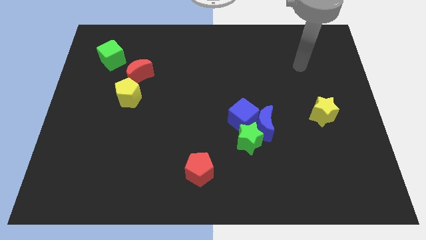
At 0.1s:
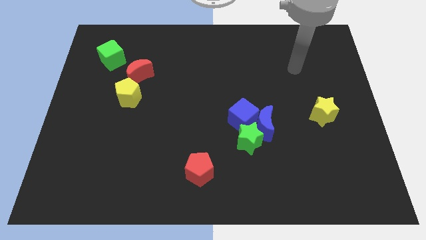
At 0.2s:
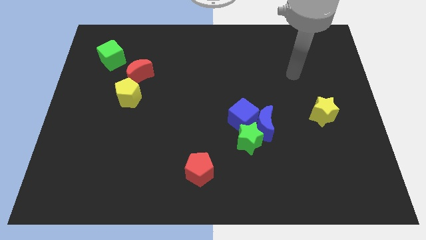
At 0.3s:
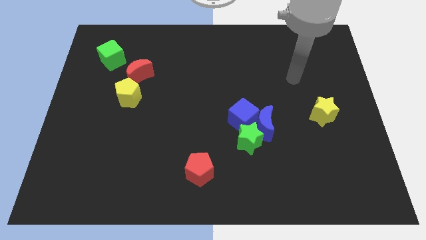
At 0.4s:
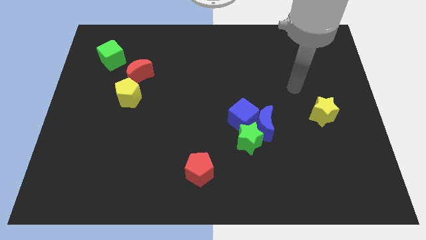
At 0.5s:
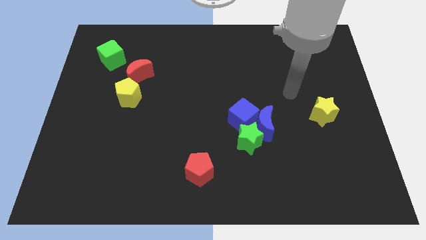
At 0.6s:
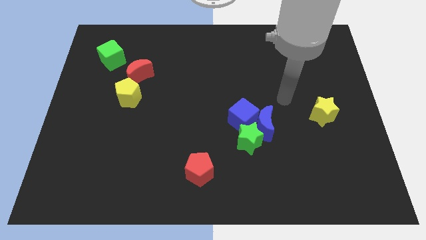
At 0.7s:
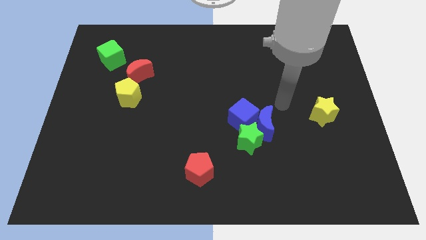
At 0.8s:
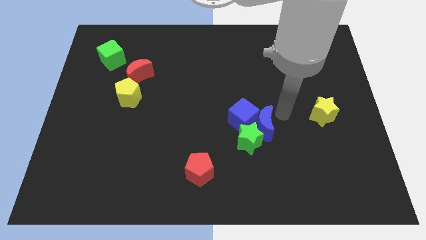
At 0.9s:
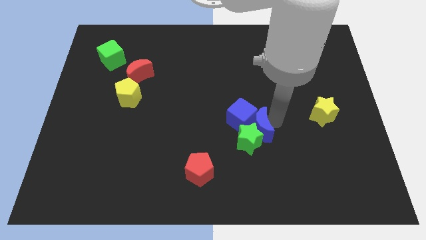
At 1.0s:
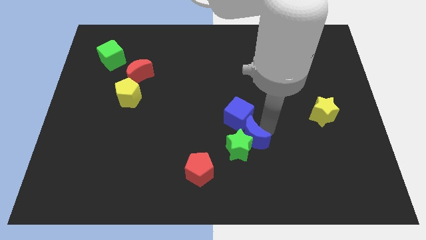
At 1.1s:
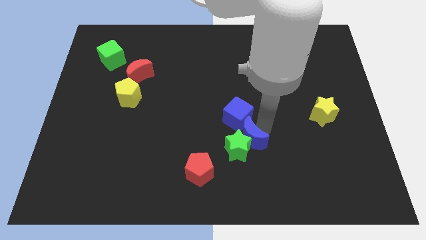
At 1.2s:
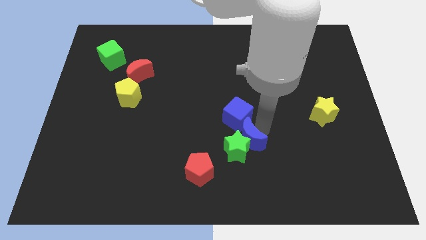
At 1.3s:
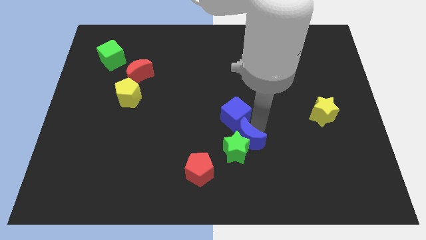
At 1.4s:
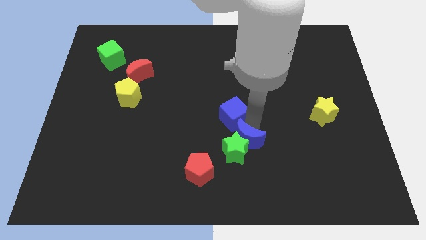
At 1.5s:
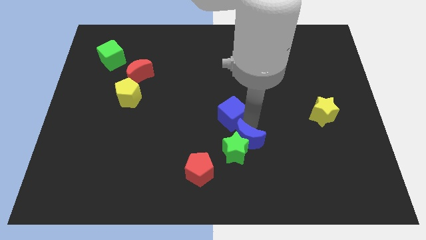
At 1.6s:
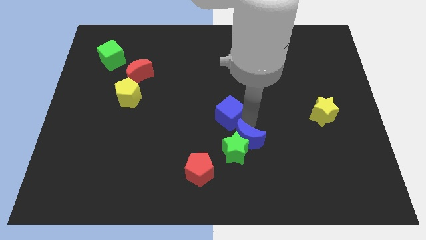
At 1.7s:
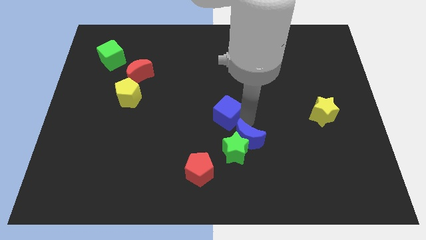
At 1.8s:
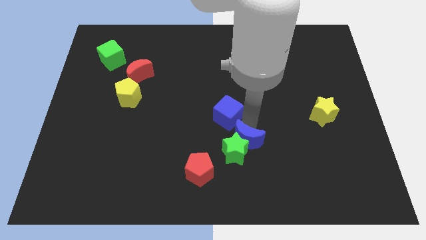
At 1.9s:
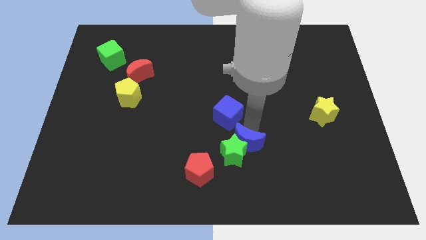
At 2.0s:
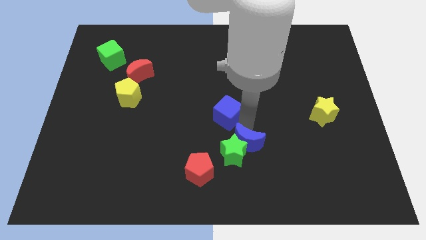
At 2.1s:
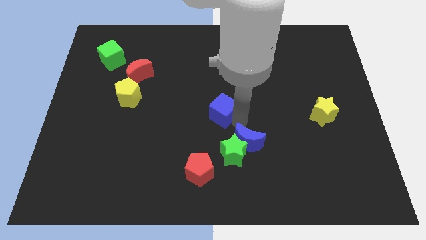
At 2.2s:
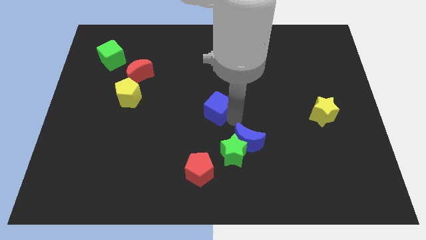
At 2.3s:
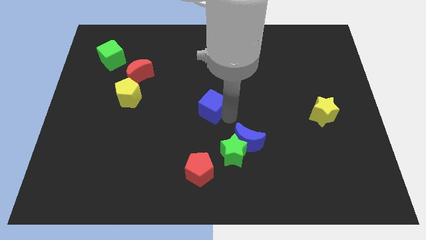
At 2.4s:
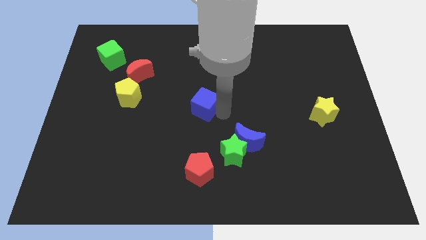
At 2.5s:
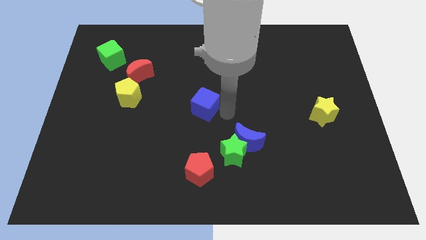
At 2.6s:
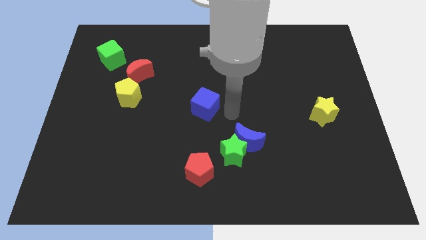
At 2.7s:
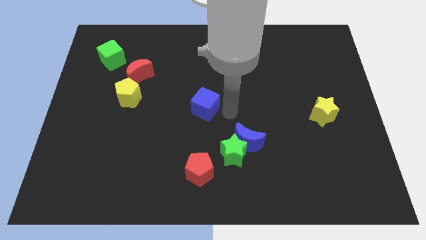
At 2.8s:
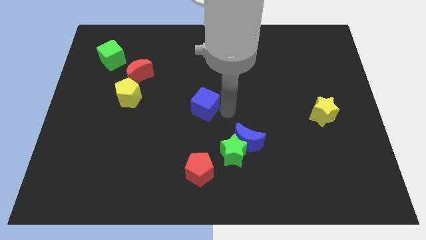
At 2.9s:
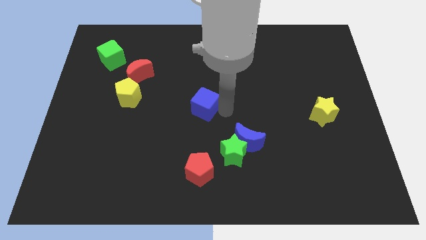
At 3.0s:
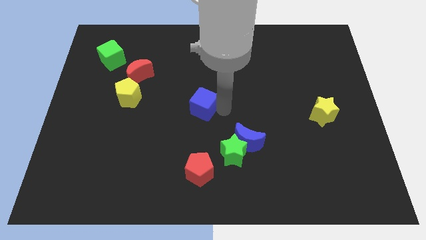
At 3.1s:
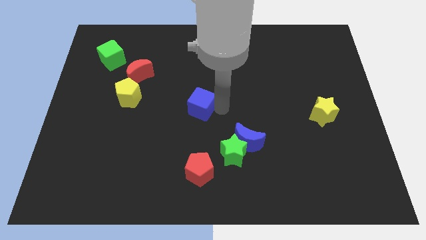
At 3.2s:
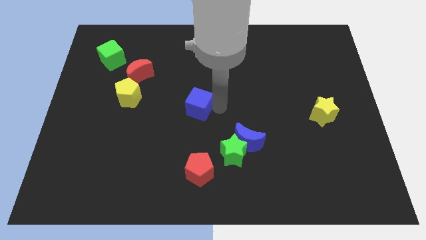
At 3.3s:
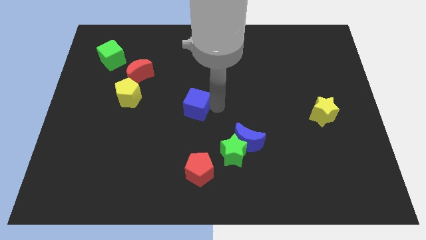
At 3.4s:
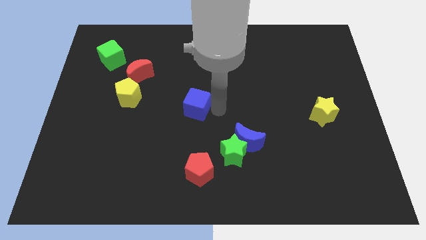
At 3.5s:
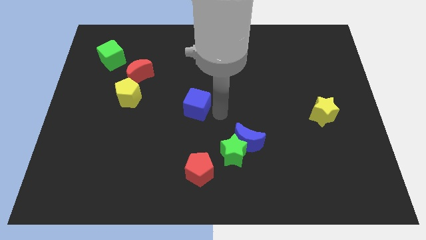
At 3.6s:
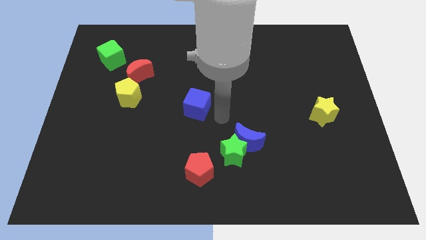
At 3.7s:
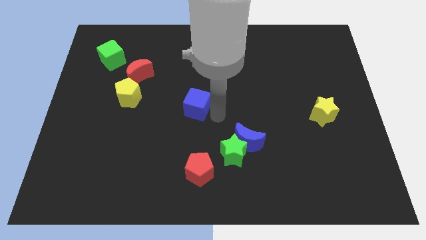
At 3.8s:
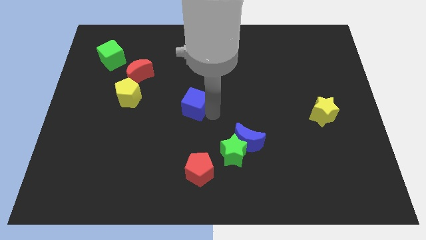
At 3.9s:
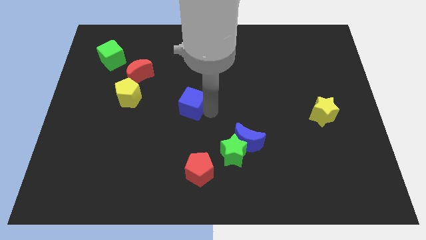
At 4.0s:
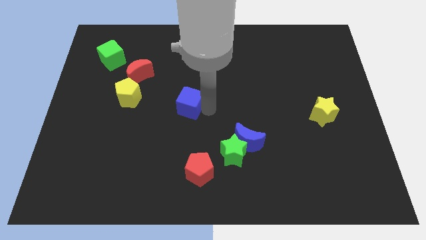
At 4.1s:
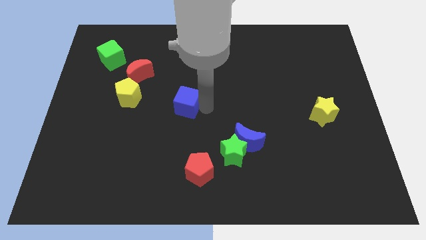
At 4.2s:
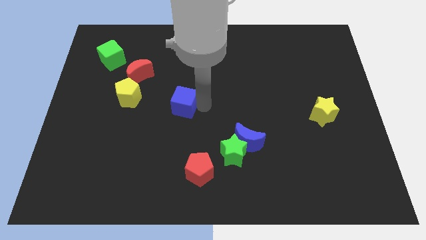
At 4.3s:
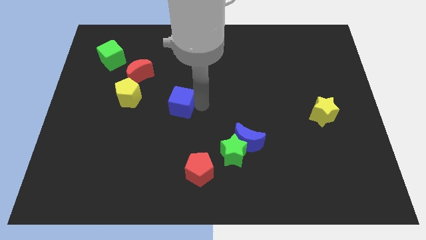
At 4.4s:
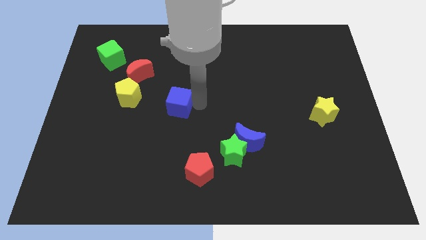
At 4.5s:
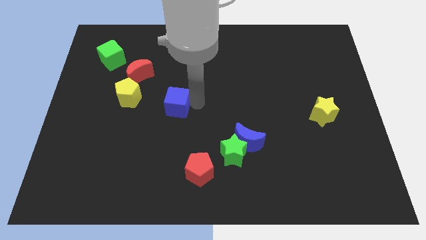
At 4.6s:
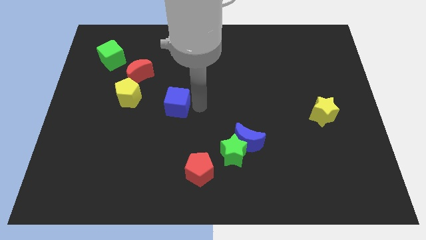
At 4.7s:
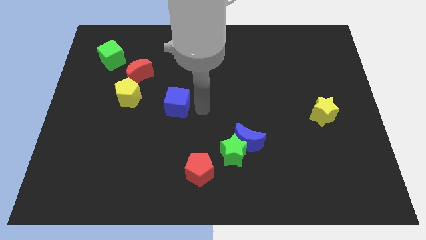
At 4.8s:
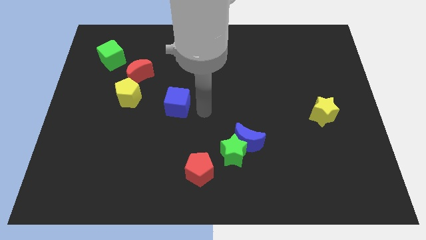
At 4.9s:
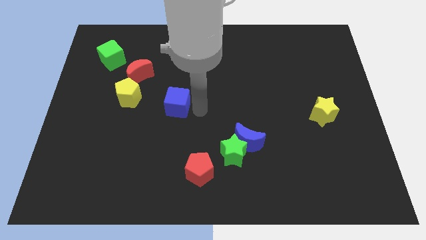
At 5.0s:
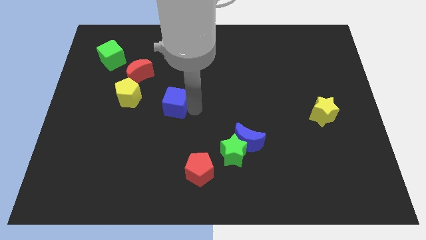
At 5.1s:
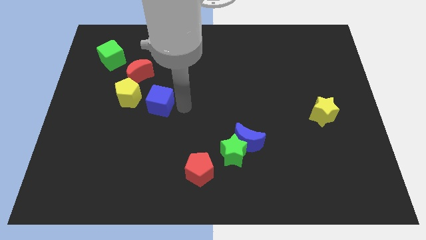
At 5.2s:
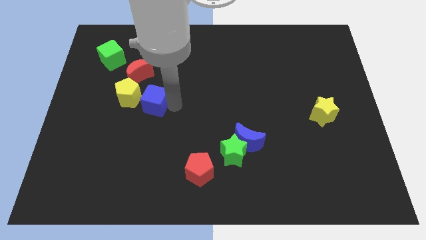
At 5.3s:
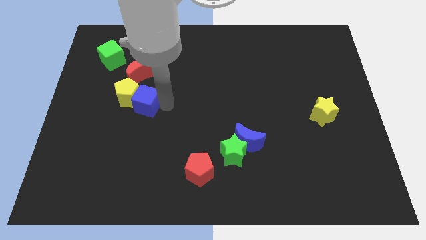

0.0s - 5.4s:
push the blue cube close to the yellow pentagon

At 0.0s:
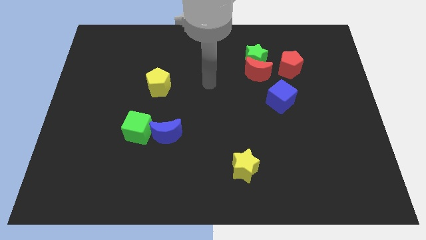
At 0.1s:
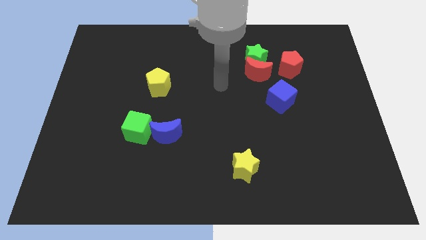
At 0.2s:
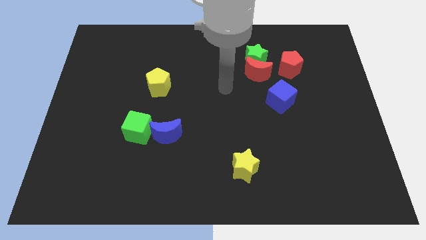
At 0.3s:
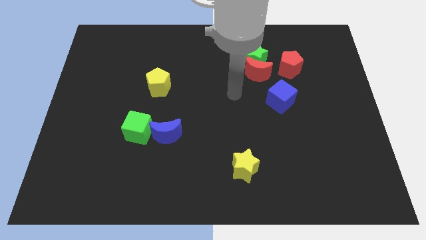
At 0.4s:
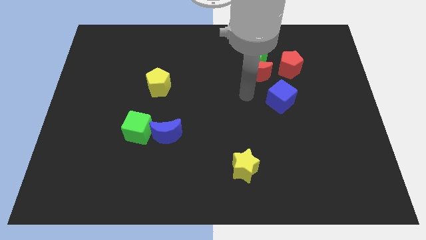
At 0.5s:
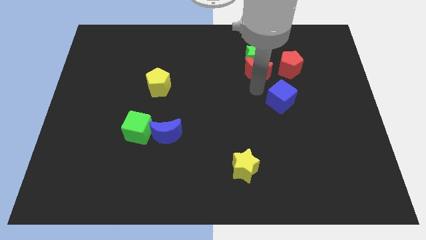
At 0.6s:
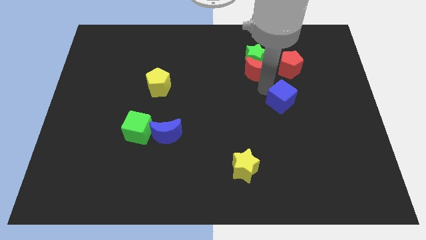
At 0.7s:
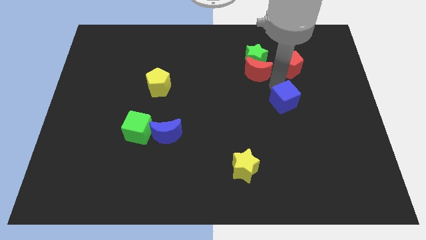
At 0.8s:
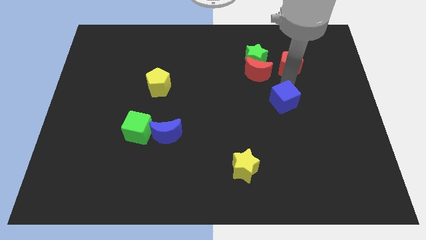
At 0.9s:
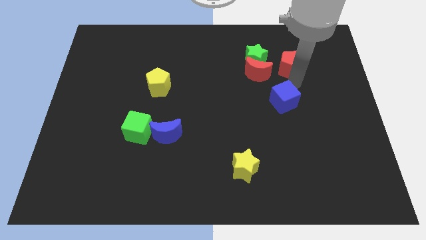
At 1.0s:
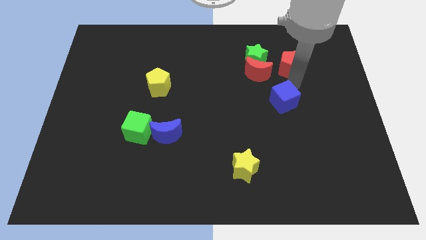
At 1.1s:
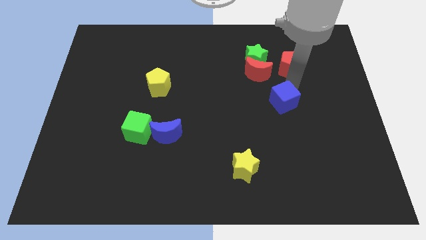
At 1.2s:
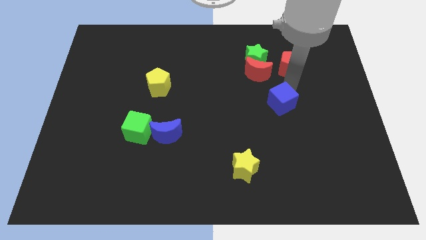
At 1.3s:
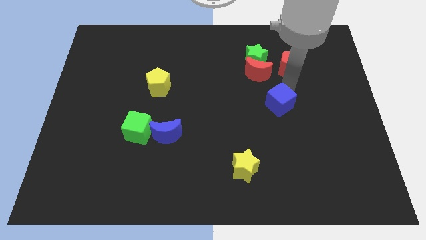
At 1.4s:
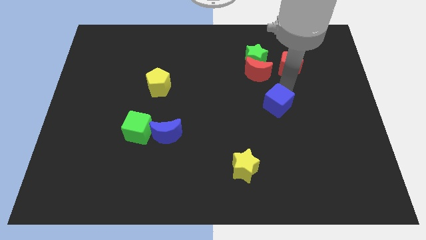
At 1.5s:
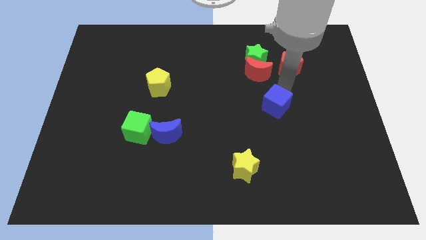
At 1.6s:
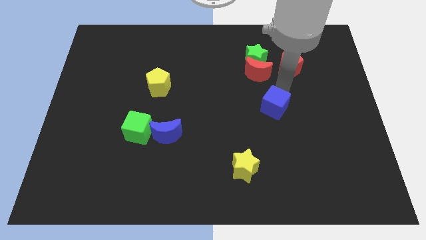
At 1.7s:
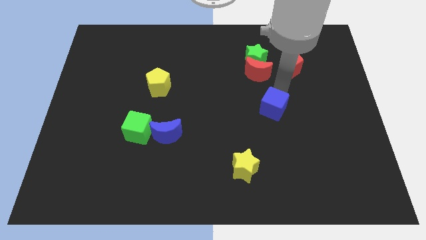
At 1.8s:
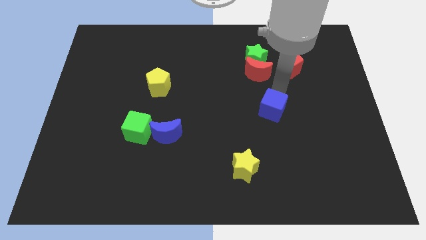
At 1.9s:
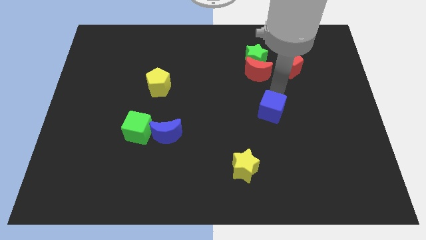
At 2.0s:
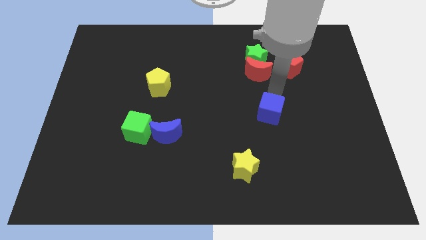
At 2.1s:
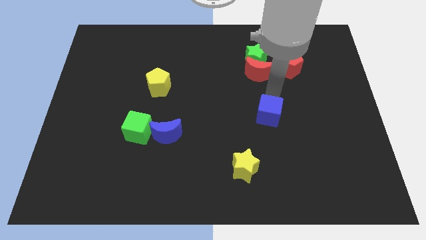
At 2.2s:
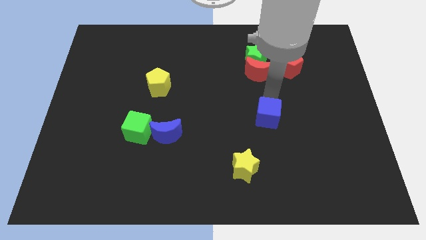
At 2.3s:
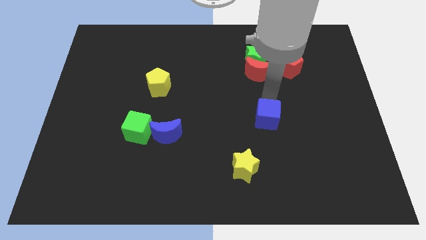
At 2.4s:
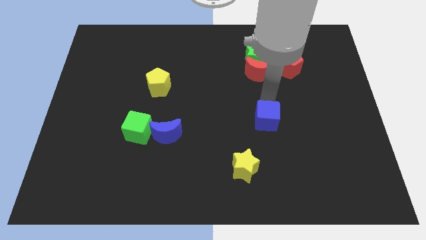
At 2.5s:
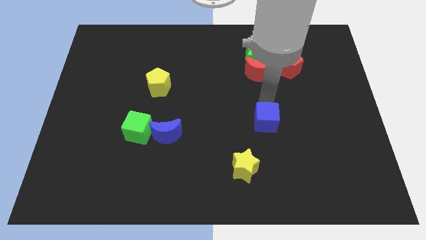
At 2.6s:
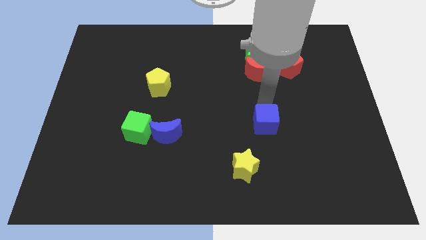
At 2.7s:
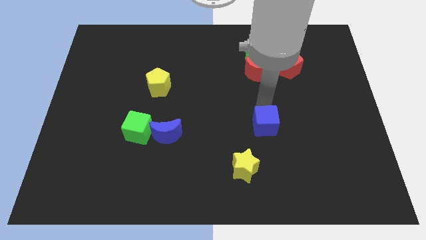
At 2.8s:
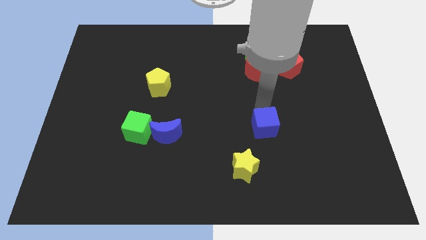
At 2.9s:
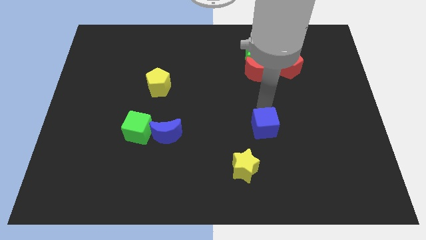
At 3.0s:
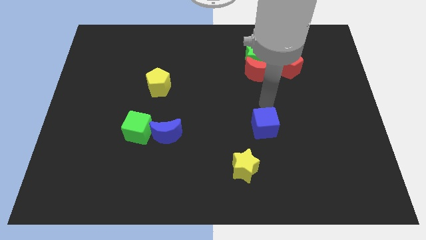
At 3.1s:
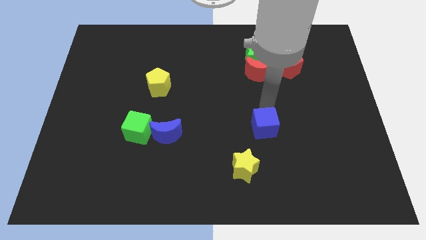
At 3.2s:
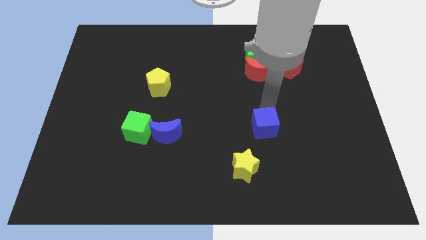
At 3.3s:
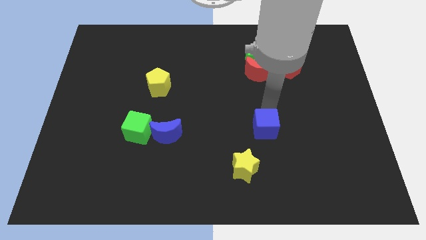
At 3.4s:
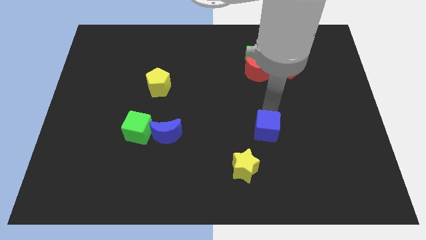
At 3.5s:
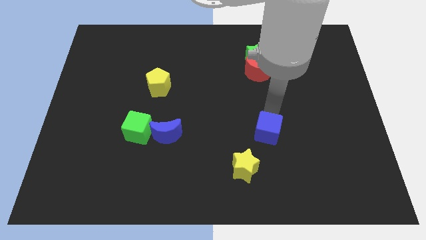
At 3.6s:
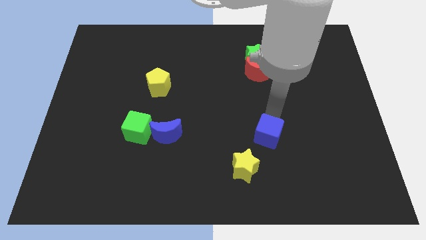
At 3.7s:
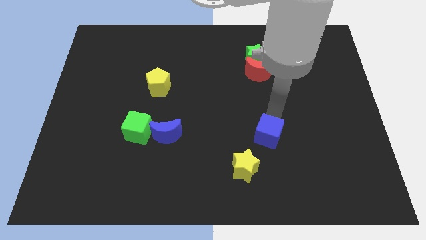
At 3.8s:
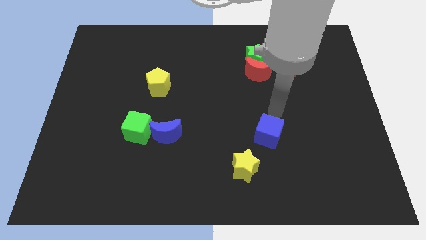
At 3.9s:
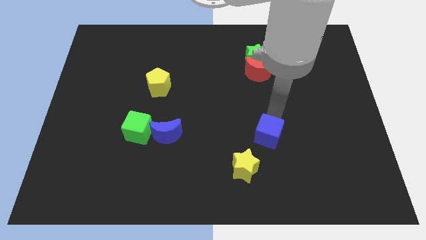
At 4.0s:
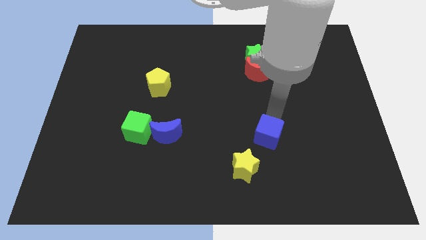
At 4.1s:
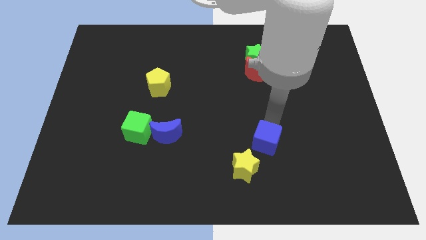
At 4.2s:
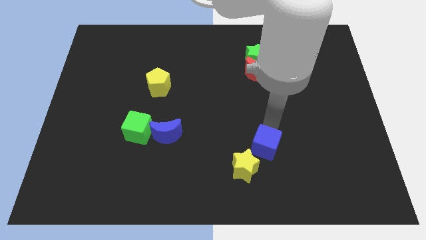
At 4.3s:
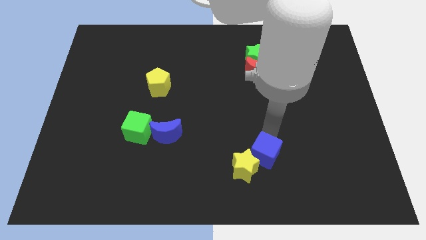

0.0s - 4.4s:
move the blue cube close to the yellow star
